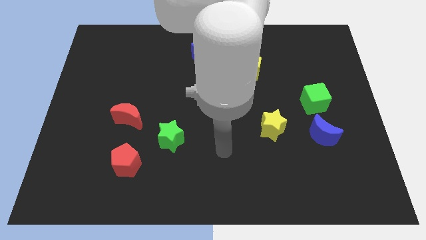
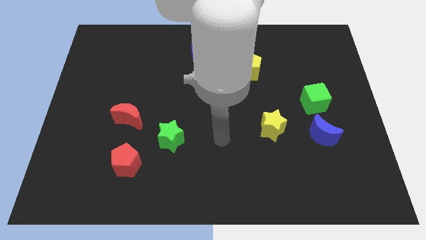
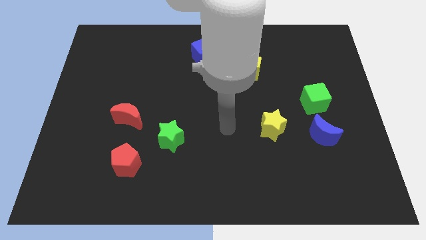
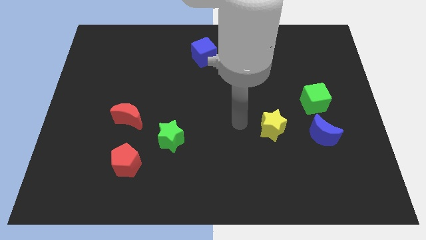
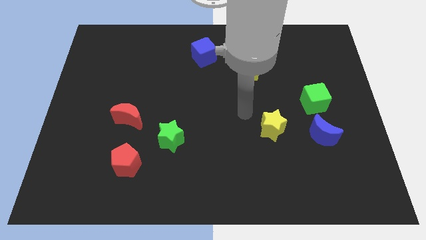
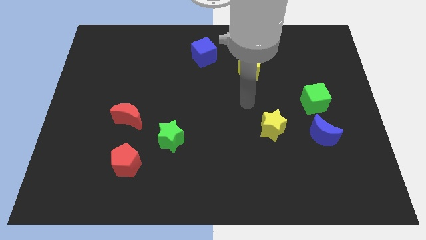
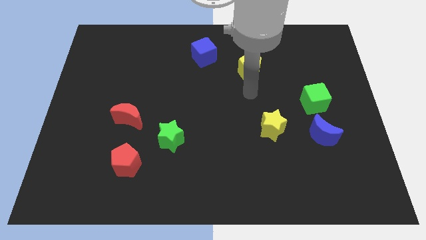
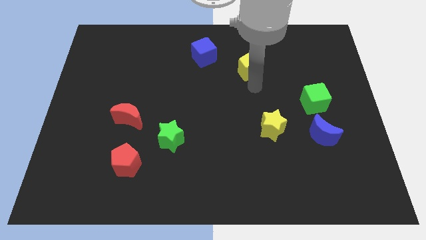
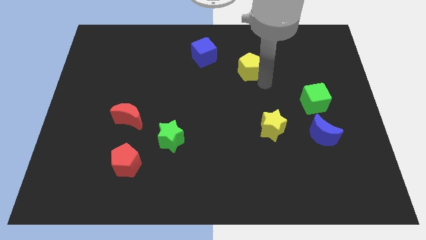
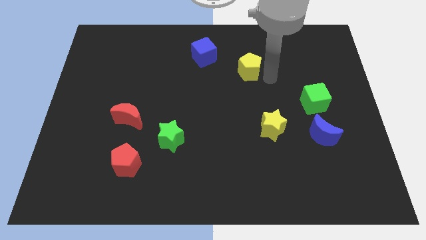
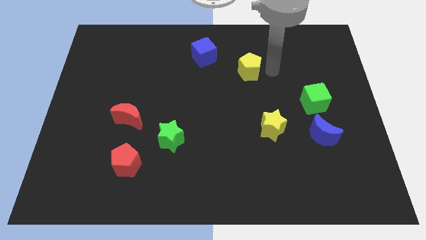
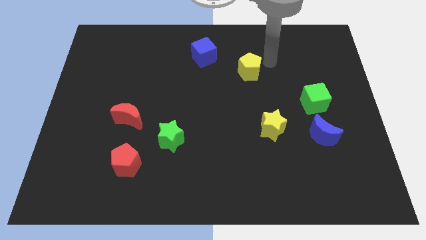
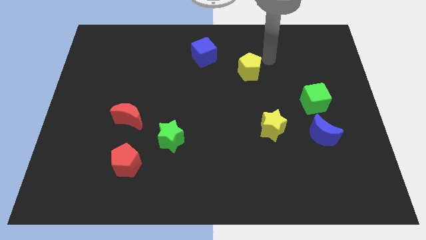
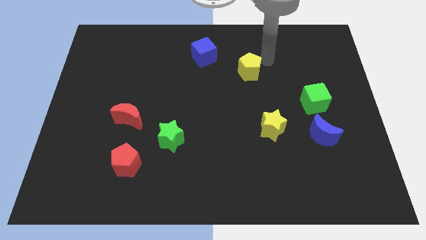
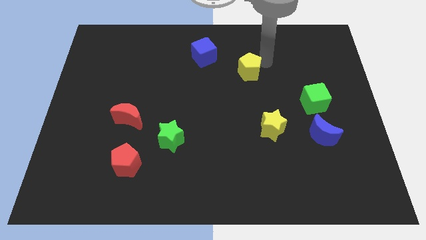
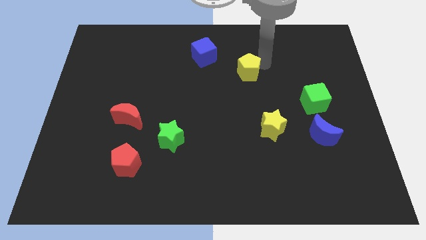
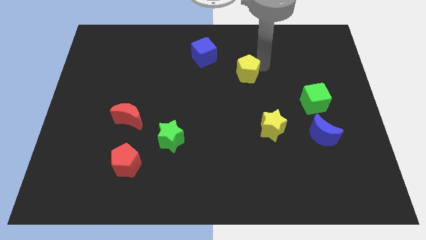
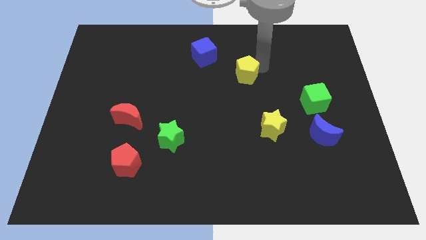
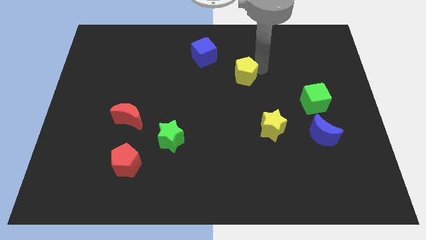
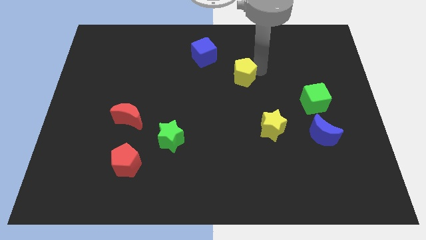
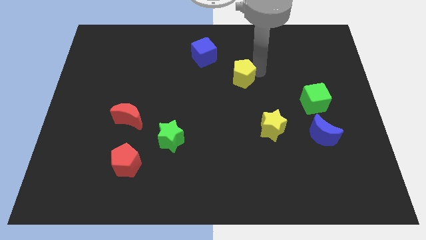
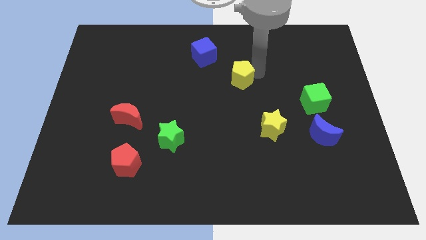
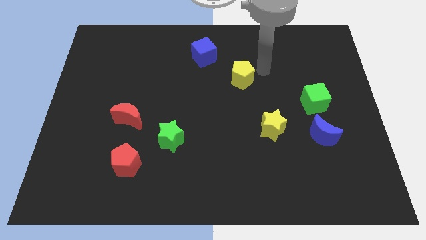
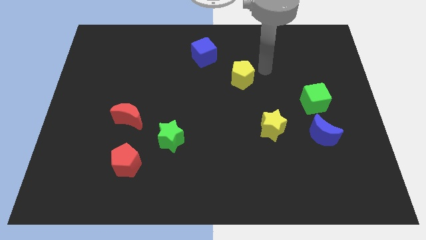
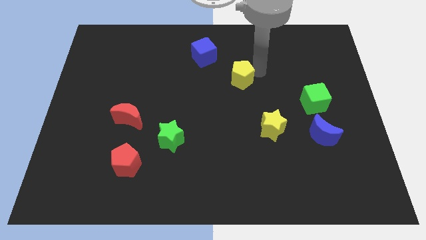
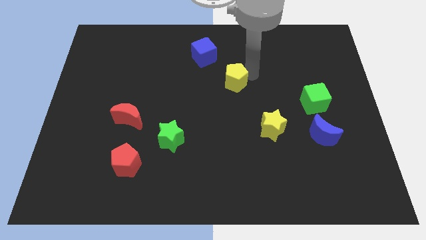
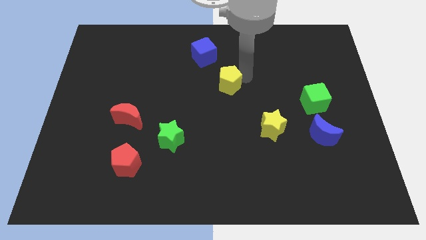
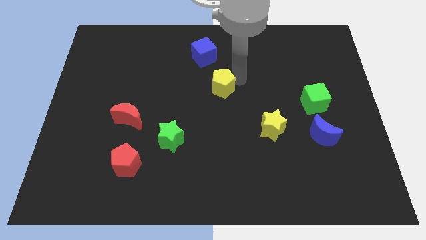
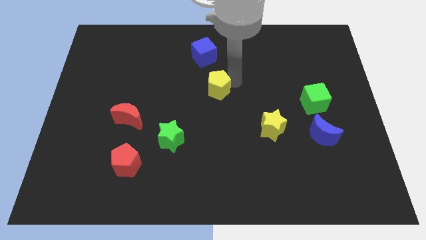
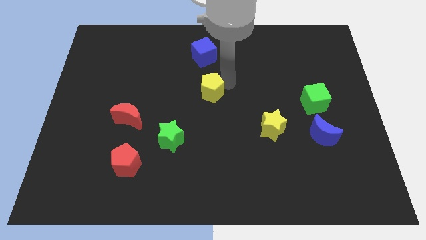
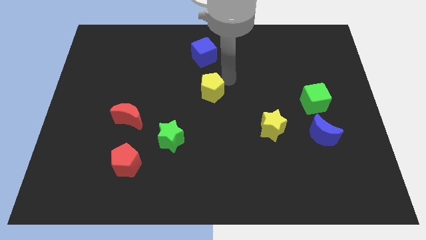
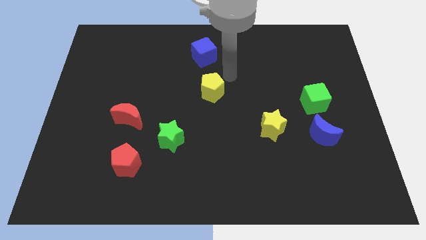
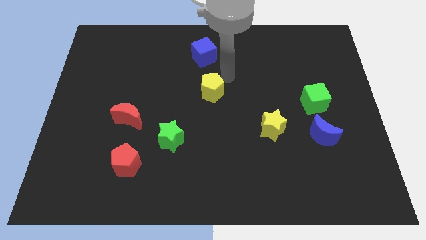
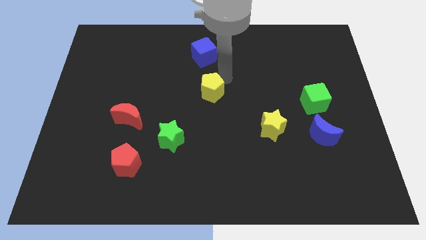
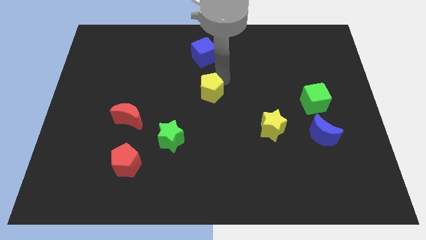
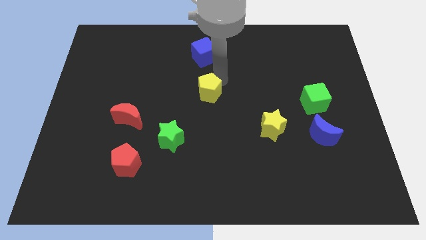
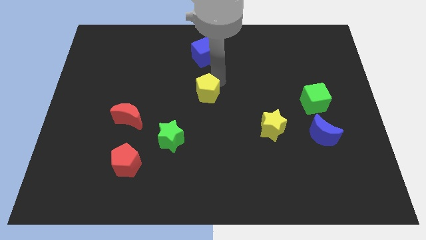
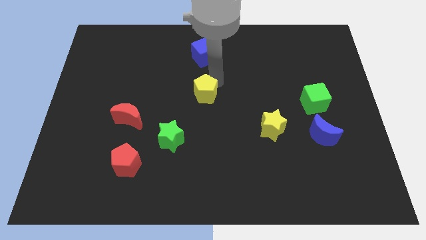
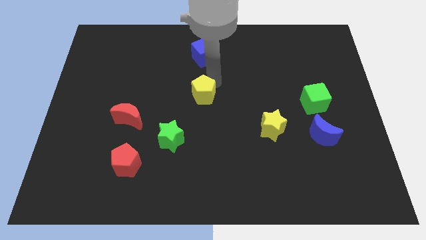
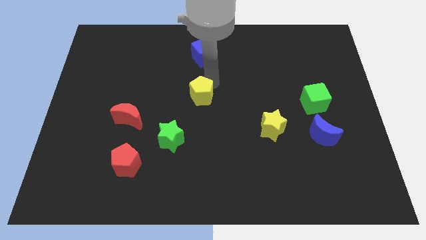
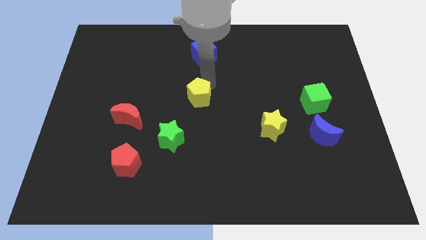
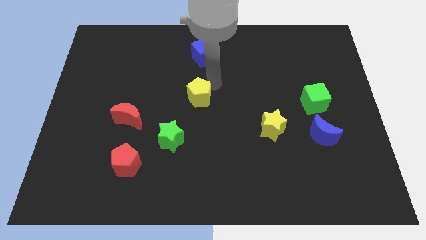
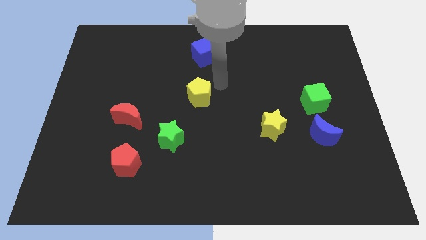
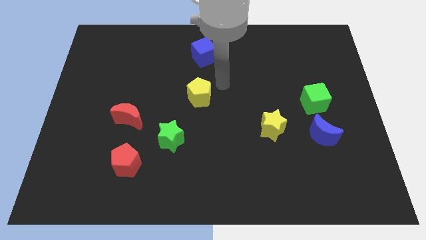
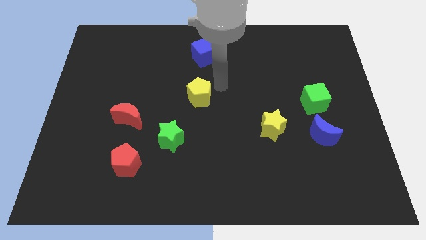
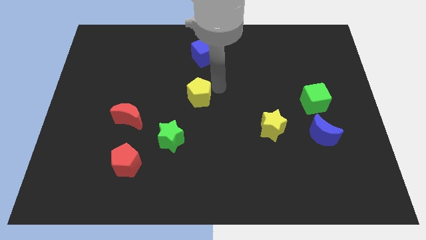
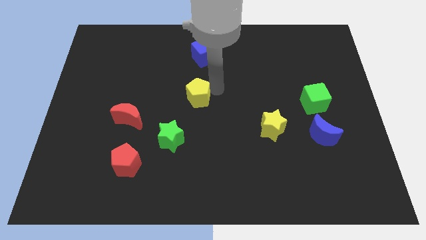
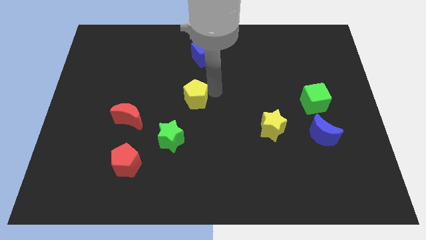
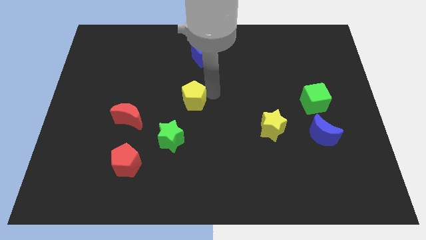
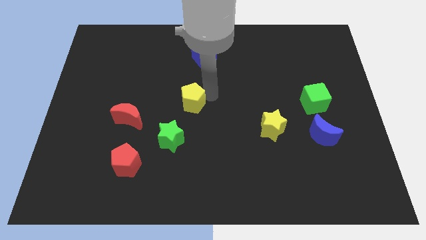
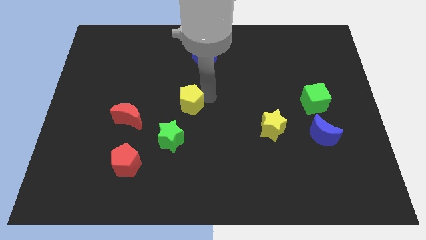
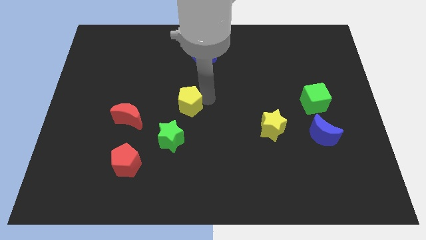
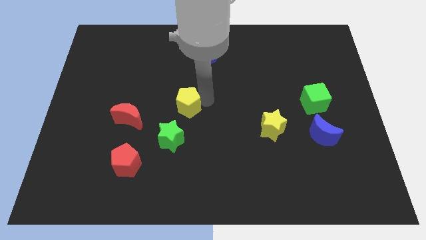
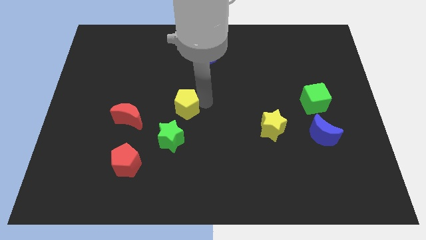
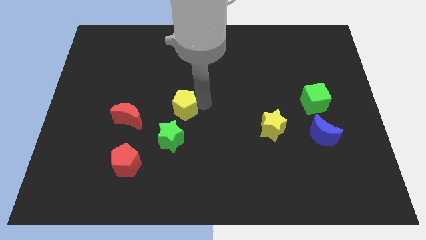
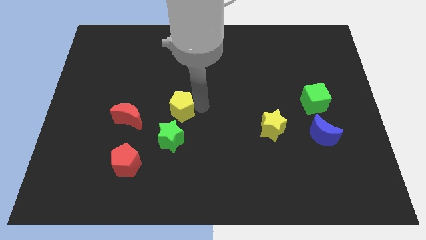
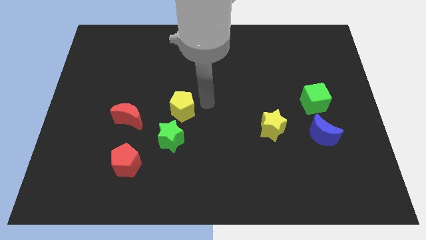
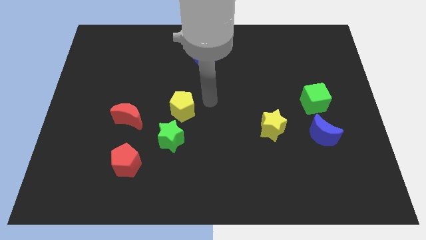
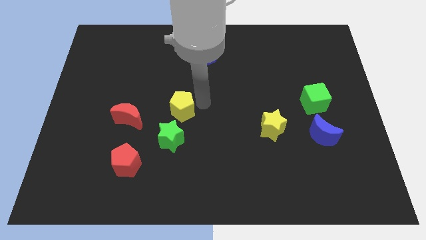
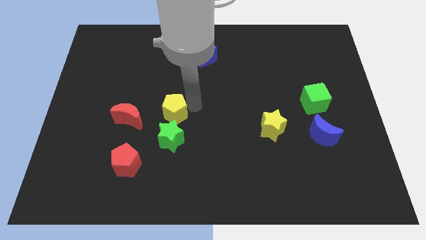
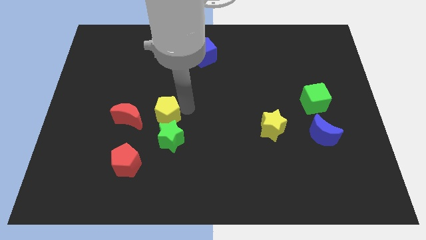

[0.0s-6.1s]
put the yellow pentagon to the top left of the green star
